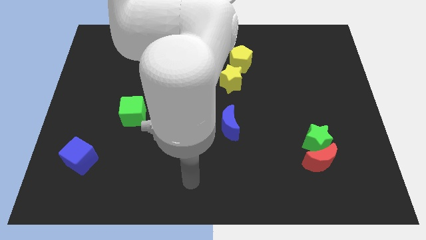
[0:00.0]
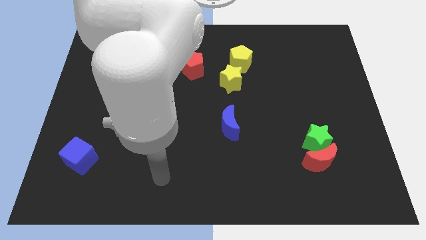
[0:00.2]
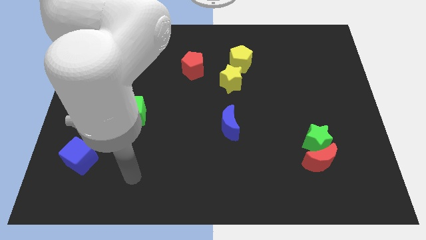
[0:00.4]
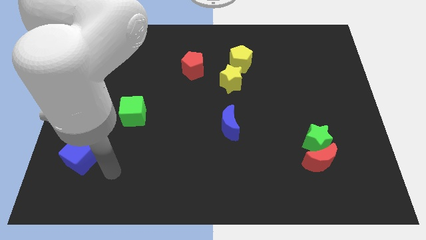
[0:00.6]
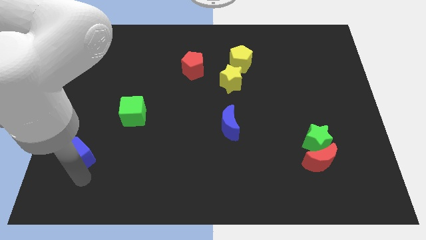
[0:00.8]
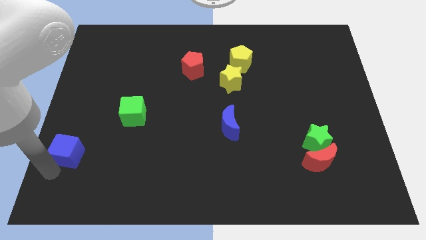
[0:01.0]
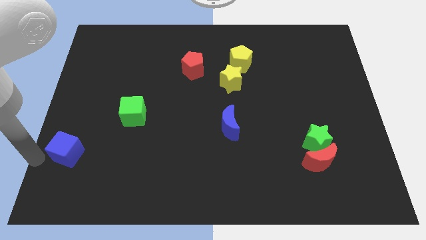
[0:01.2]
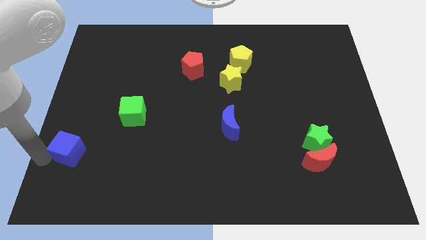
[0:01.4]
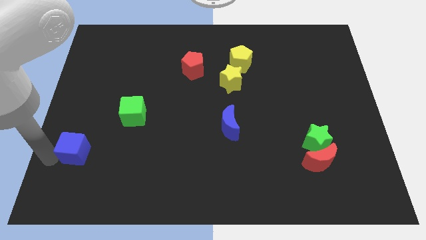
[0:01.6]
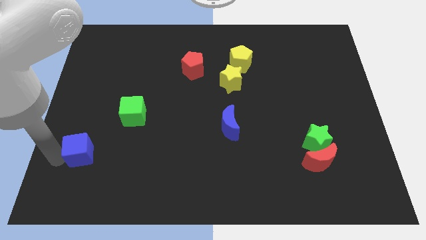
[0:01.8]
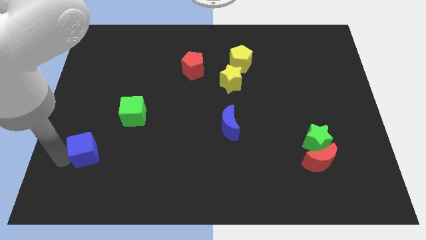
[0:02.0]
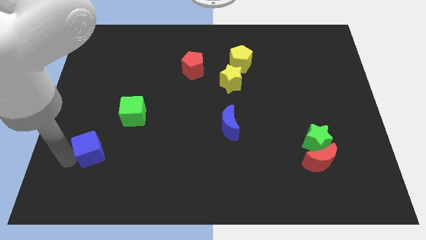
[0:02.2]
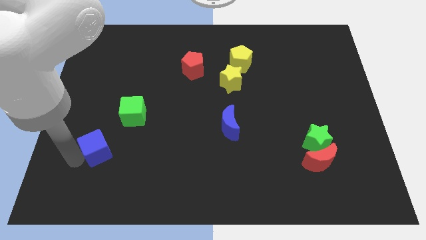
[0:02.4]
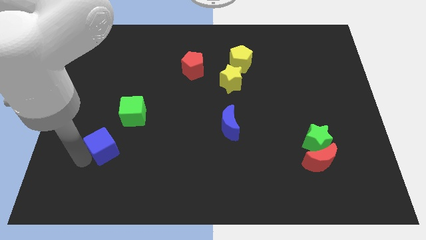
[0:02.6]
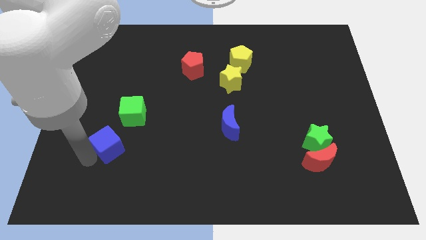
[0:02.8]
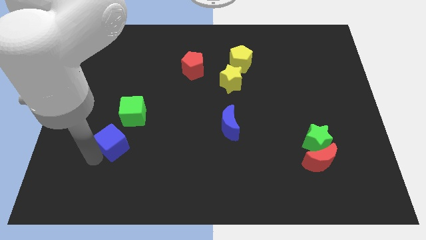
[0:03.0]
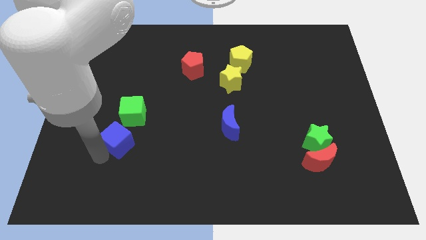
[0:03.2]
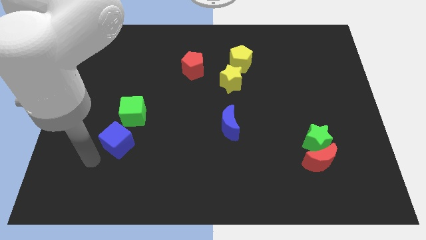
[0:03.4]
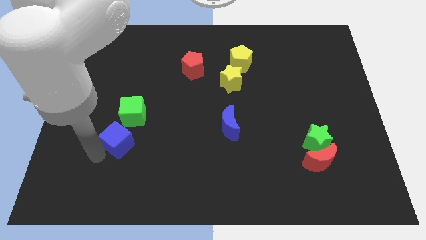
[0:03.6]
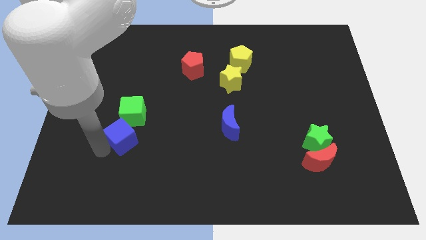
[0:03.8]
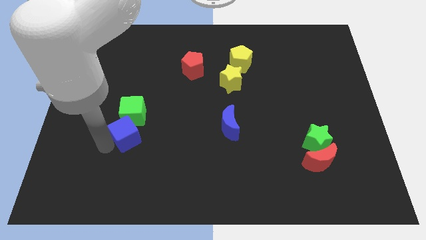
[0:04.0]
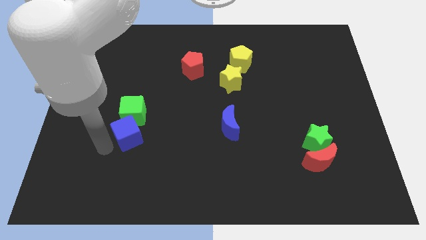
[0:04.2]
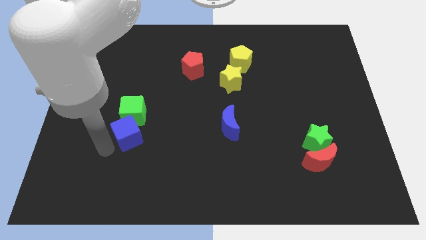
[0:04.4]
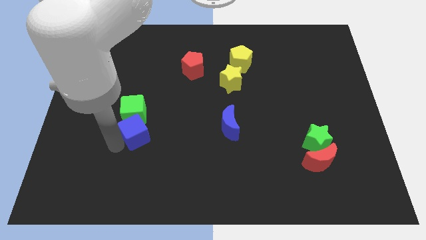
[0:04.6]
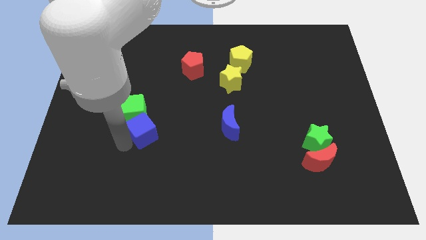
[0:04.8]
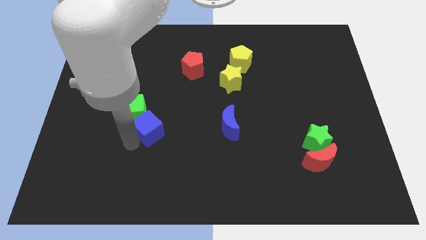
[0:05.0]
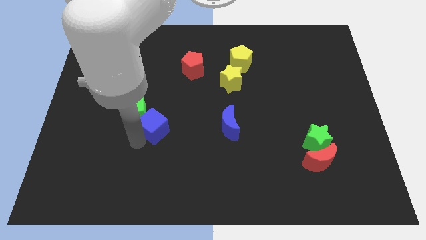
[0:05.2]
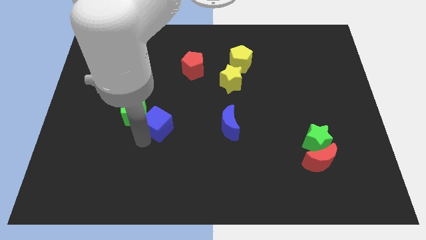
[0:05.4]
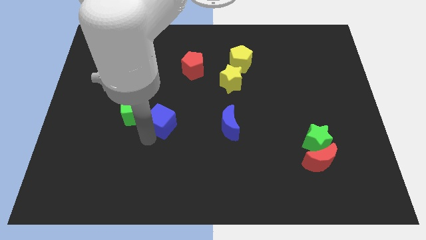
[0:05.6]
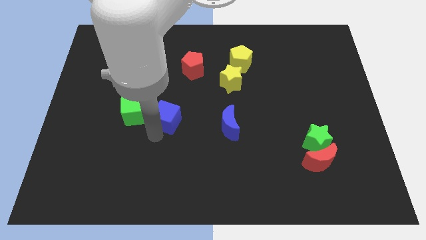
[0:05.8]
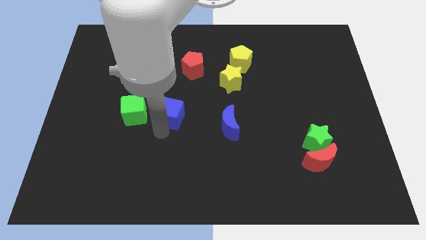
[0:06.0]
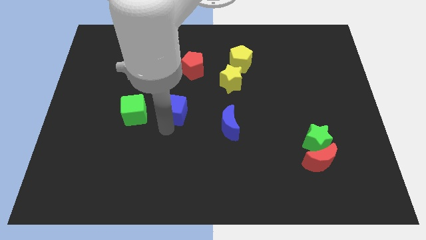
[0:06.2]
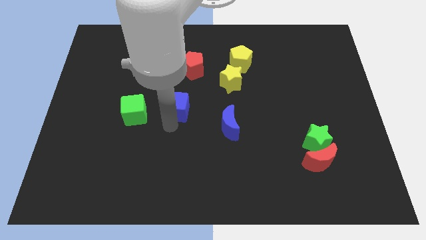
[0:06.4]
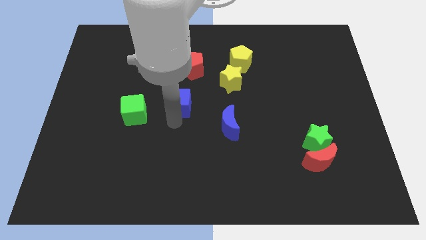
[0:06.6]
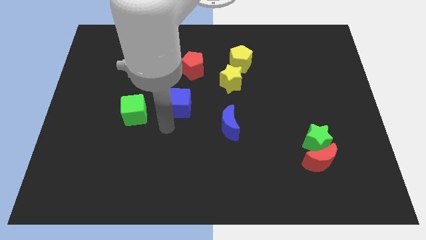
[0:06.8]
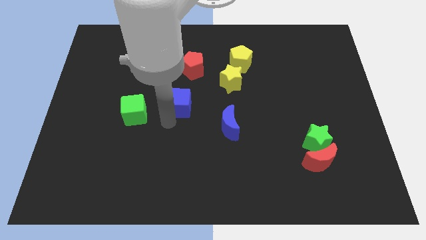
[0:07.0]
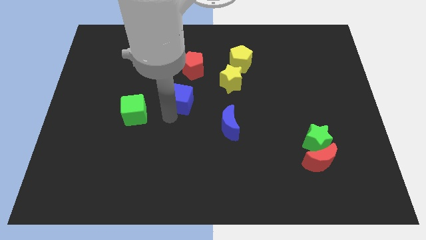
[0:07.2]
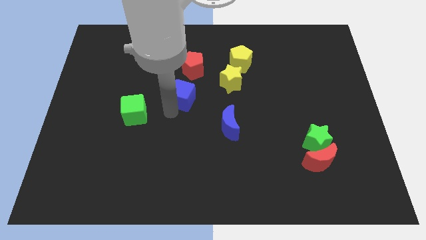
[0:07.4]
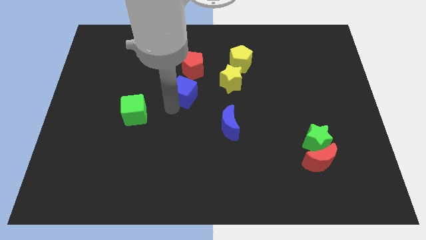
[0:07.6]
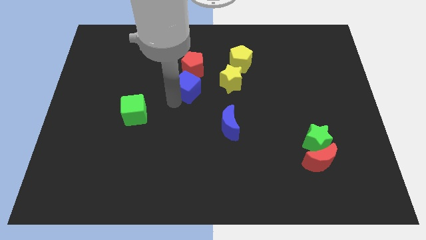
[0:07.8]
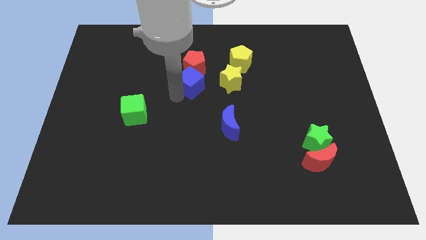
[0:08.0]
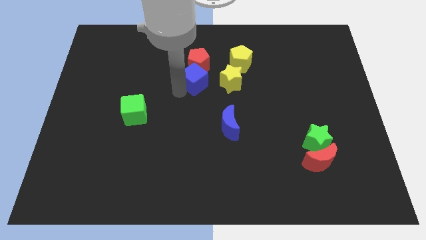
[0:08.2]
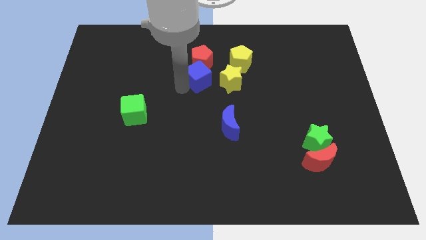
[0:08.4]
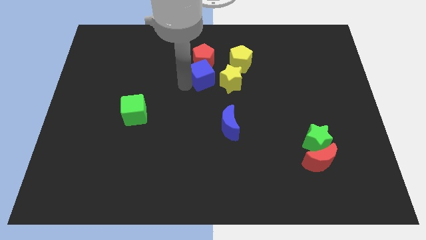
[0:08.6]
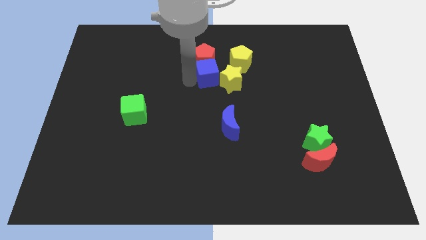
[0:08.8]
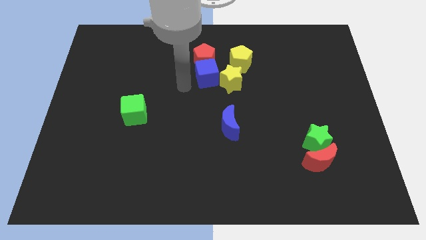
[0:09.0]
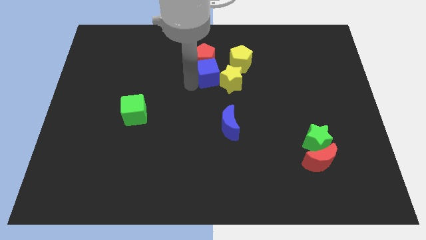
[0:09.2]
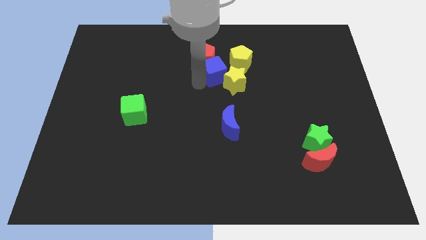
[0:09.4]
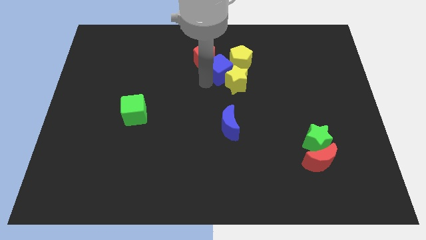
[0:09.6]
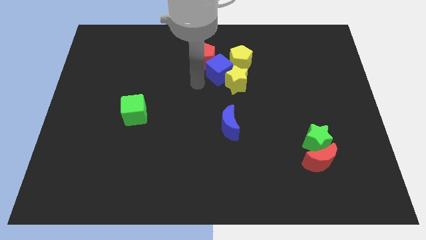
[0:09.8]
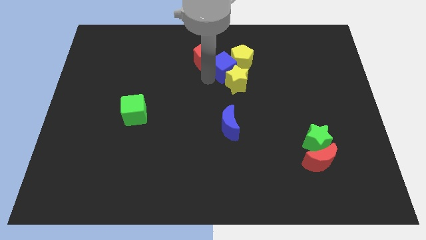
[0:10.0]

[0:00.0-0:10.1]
push the blue cube to the yellow pentagon

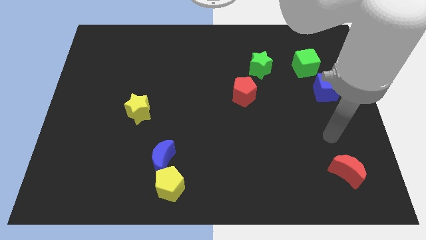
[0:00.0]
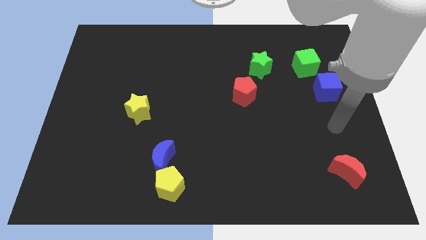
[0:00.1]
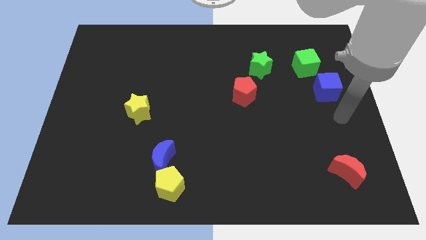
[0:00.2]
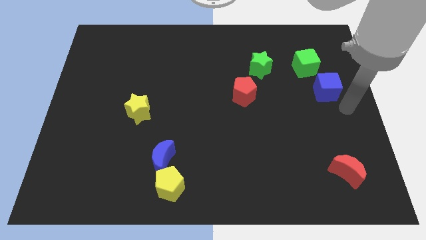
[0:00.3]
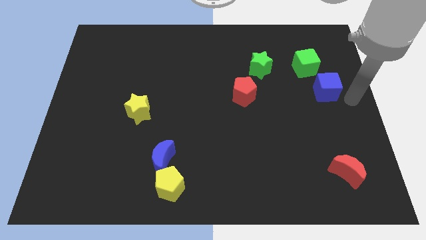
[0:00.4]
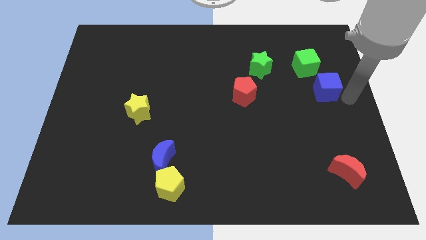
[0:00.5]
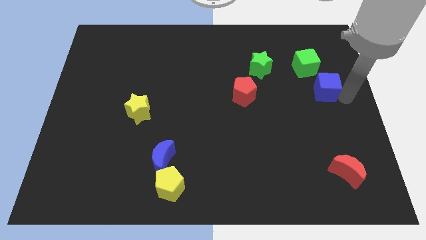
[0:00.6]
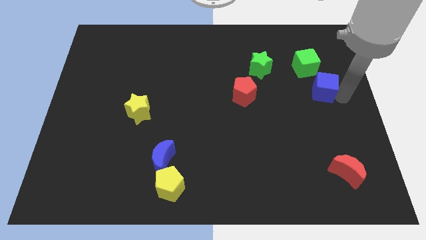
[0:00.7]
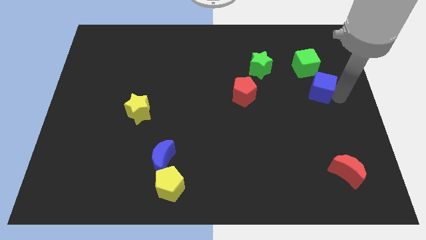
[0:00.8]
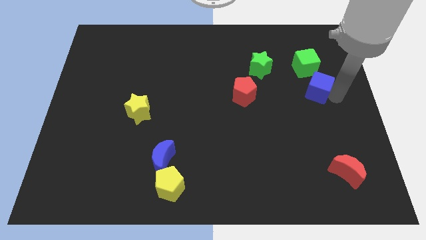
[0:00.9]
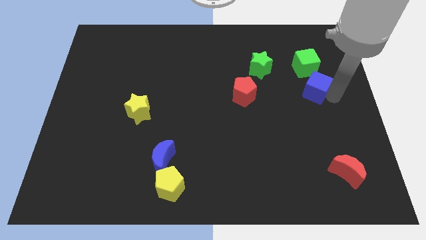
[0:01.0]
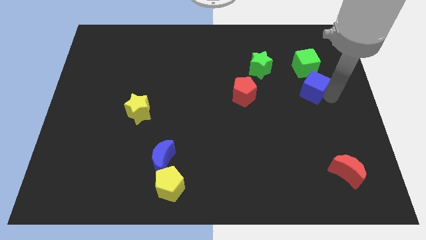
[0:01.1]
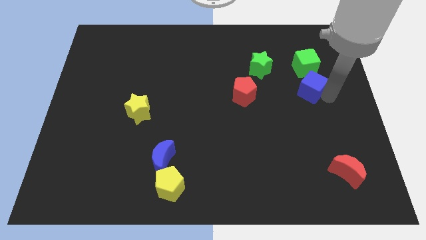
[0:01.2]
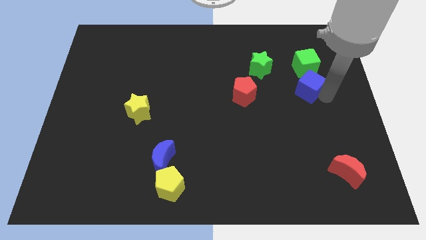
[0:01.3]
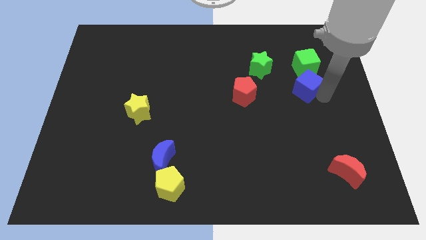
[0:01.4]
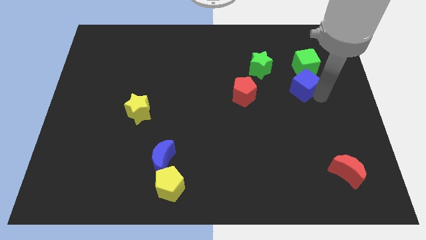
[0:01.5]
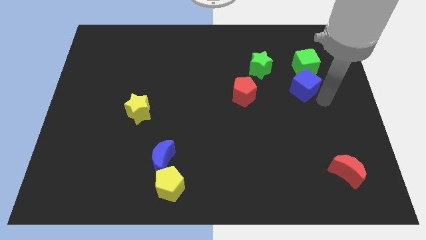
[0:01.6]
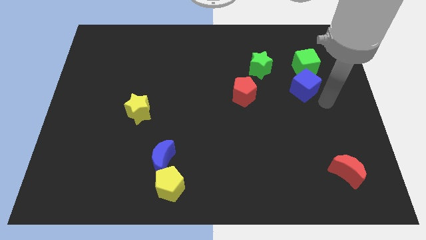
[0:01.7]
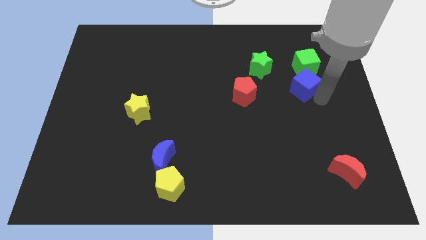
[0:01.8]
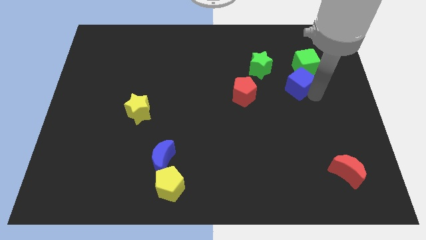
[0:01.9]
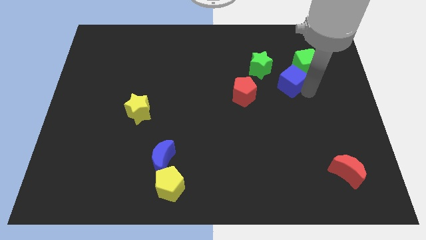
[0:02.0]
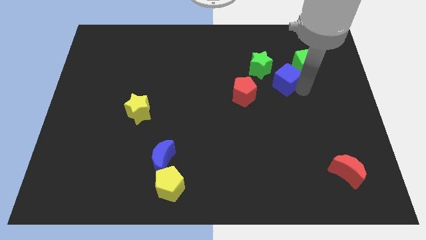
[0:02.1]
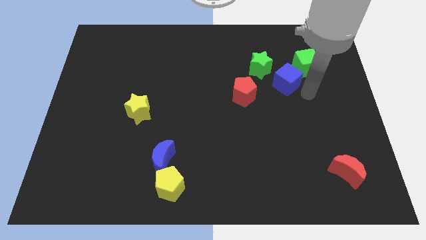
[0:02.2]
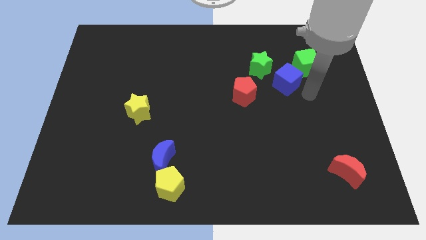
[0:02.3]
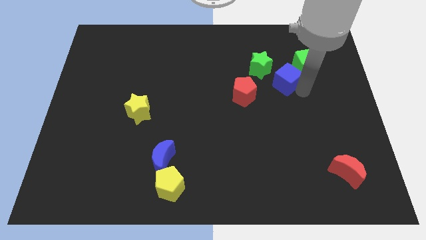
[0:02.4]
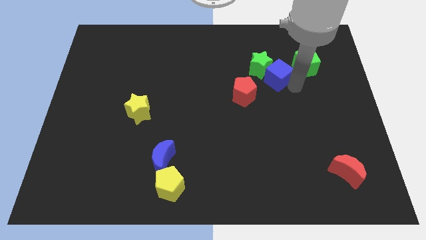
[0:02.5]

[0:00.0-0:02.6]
put the blue cube close to the green star

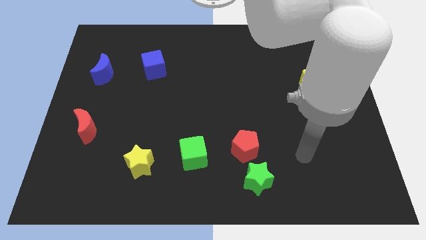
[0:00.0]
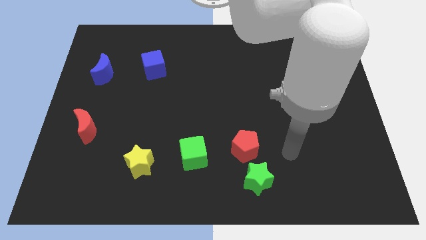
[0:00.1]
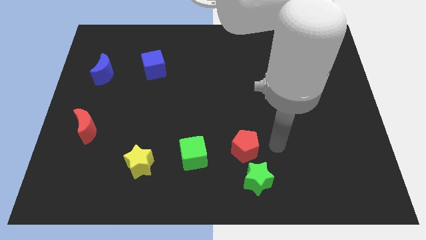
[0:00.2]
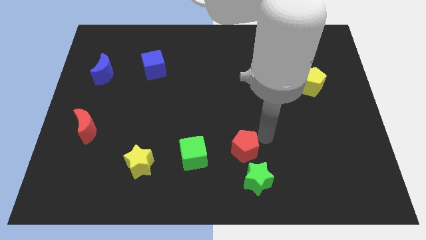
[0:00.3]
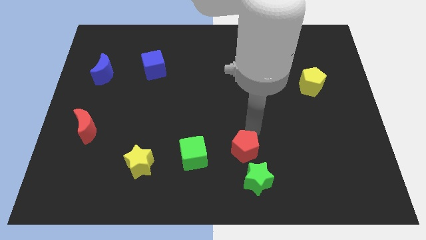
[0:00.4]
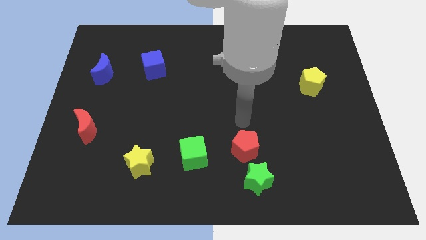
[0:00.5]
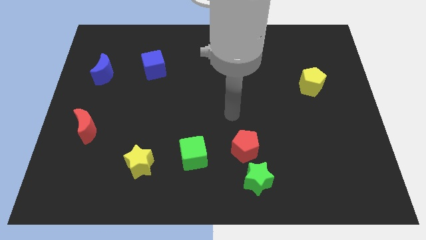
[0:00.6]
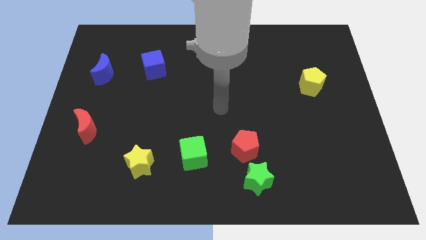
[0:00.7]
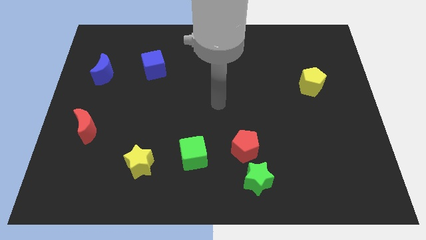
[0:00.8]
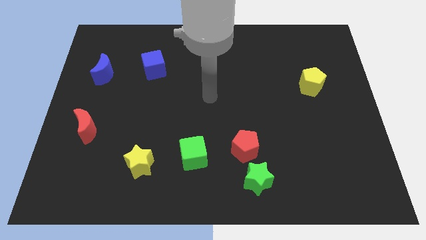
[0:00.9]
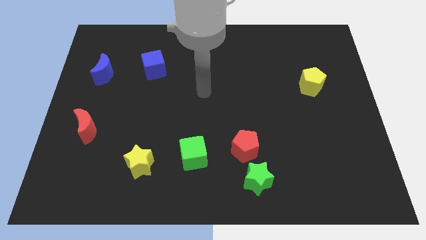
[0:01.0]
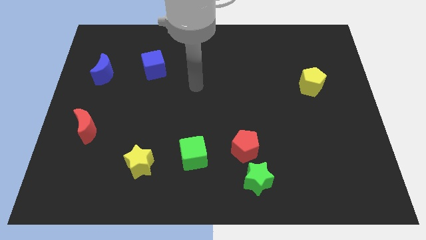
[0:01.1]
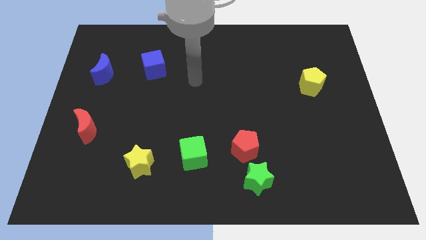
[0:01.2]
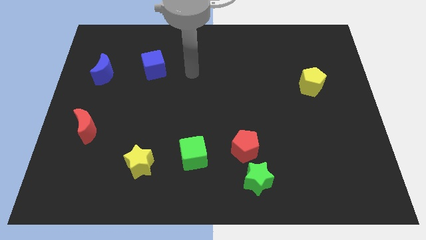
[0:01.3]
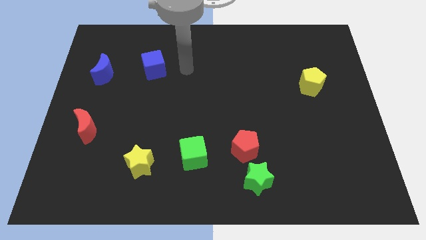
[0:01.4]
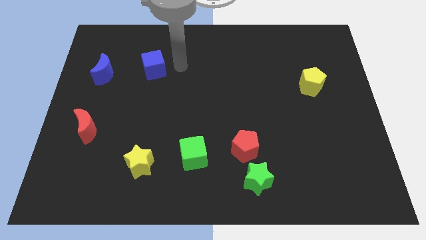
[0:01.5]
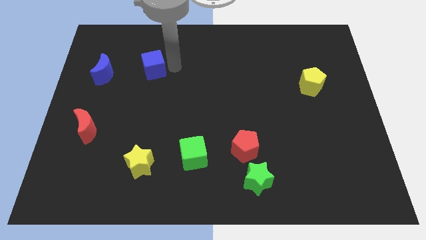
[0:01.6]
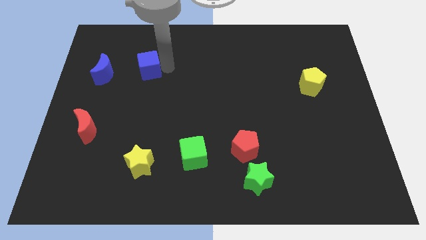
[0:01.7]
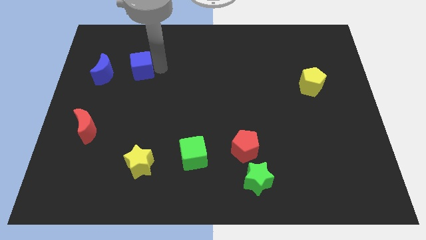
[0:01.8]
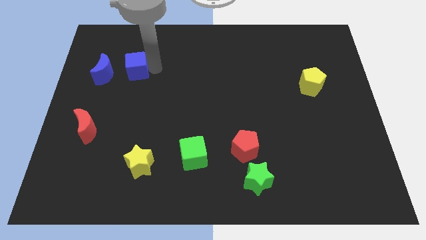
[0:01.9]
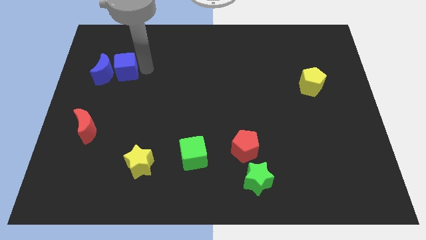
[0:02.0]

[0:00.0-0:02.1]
put the blue cube next to the blue moon
